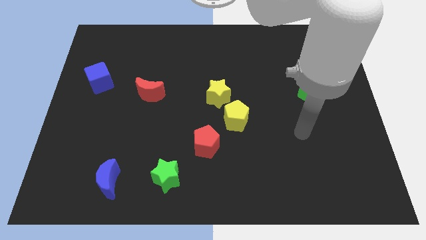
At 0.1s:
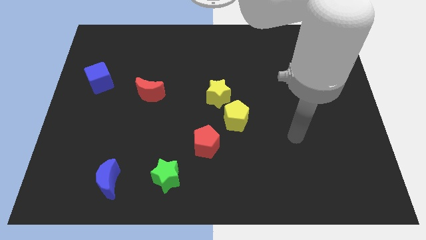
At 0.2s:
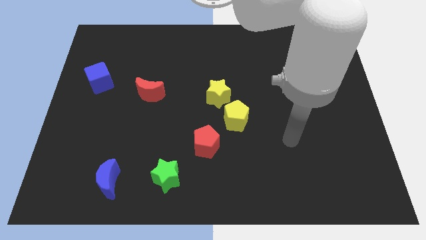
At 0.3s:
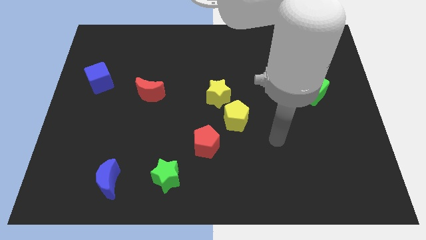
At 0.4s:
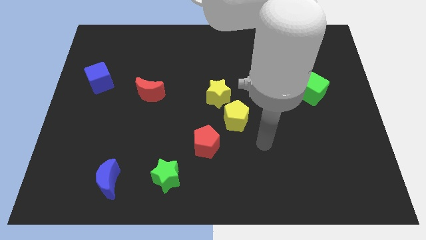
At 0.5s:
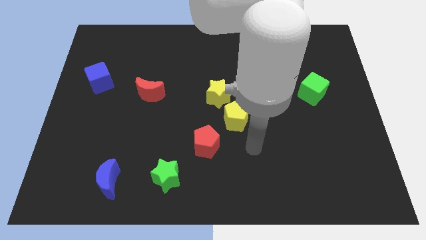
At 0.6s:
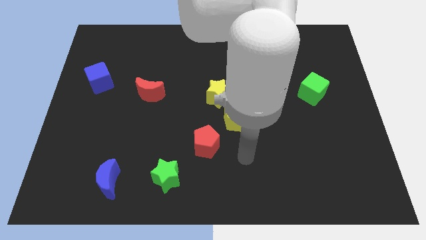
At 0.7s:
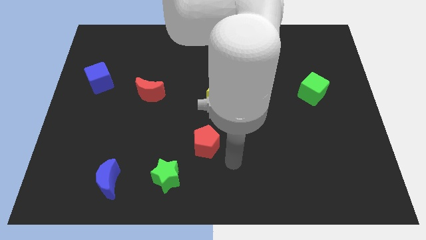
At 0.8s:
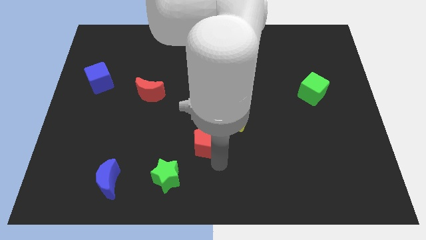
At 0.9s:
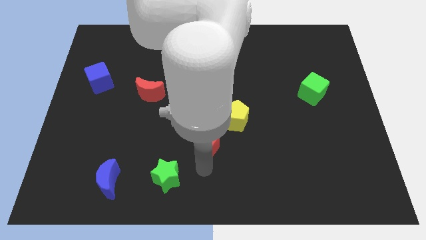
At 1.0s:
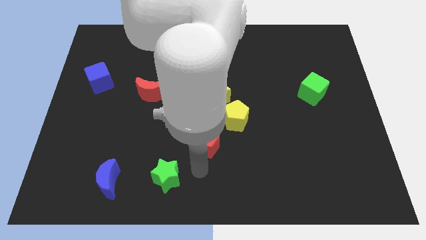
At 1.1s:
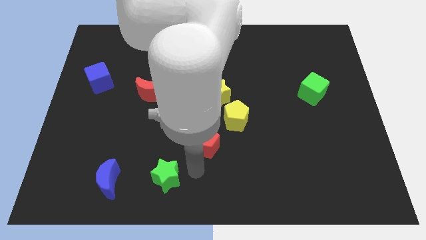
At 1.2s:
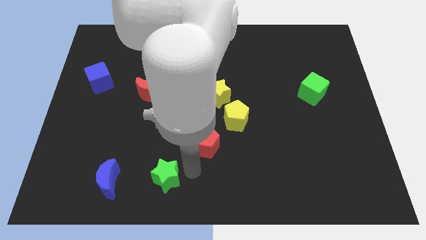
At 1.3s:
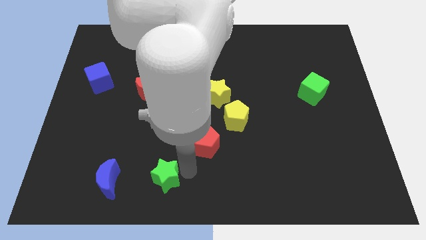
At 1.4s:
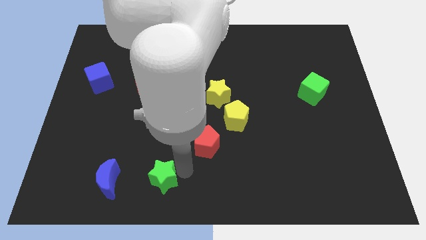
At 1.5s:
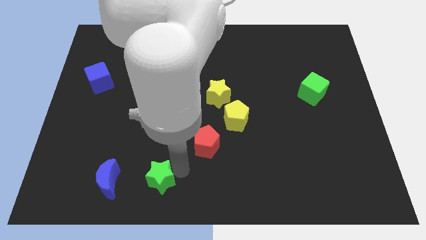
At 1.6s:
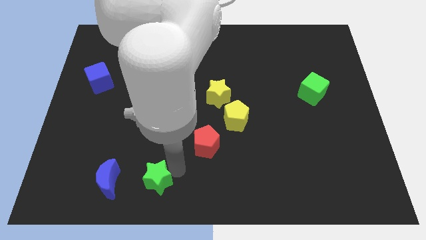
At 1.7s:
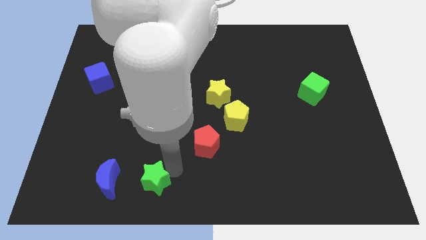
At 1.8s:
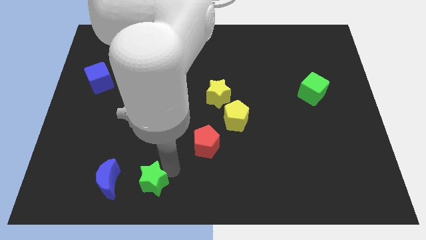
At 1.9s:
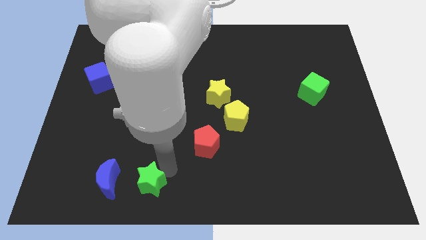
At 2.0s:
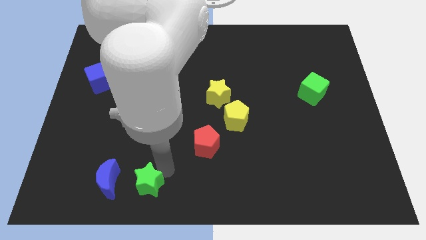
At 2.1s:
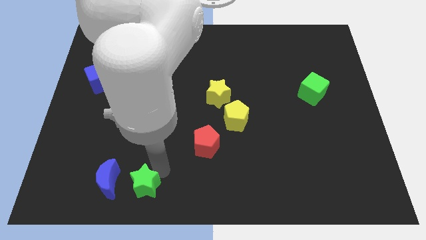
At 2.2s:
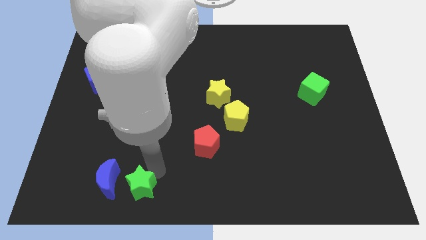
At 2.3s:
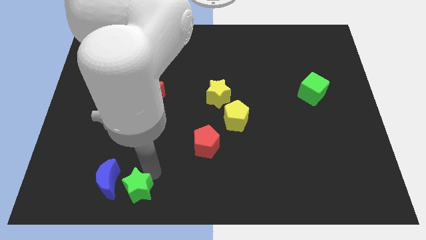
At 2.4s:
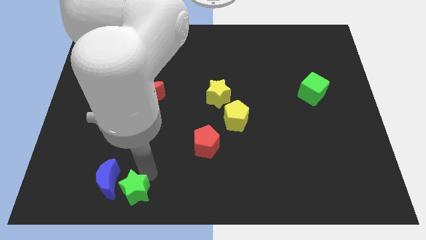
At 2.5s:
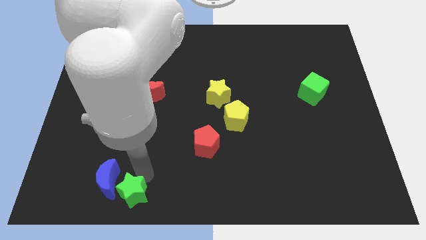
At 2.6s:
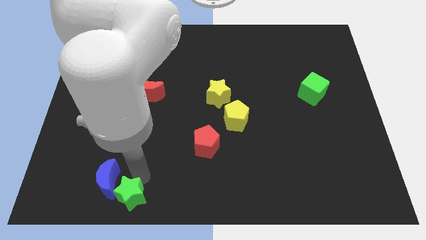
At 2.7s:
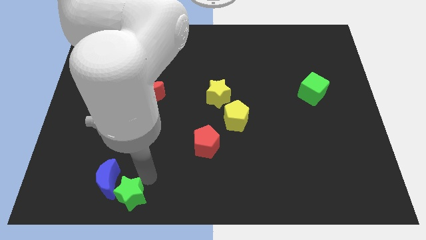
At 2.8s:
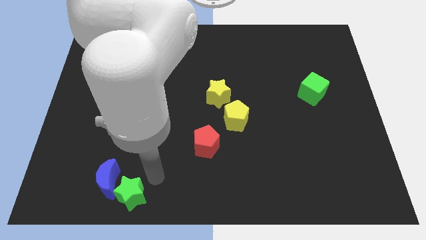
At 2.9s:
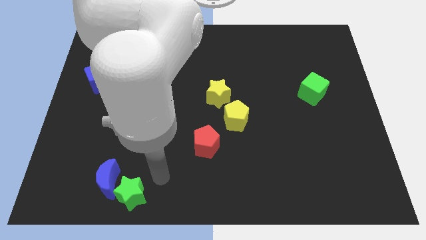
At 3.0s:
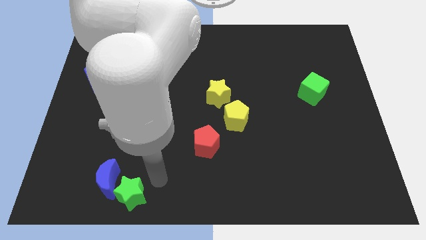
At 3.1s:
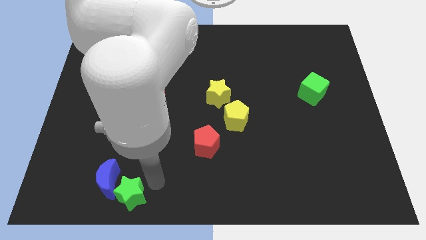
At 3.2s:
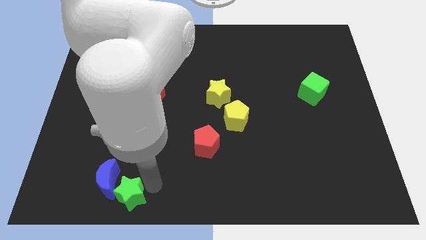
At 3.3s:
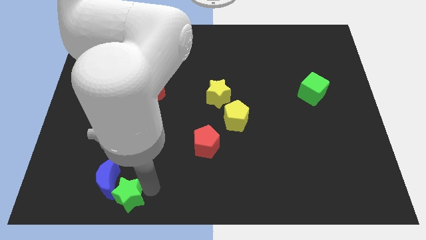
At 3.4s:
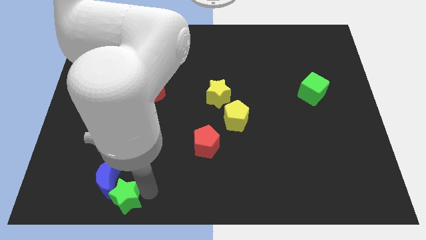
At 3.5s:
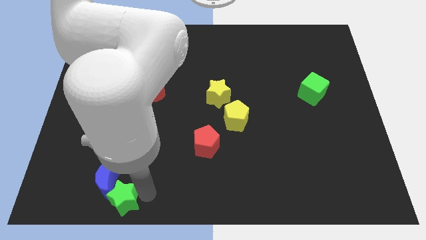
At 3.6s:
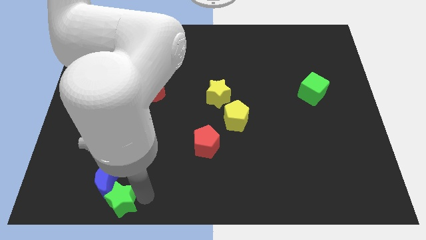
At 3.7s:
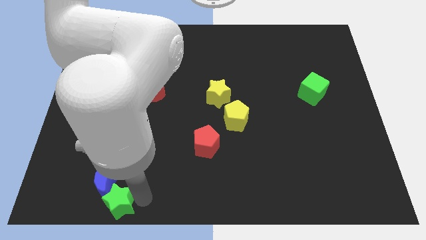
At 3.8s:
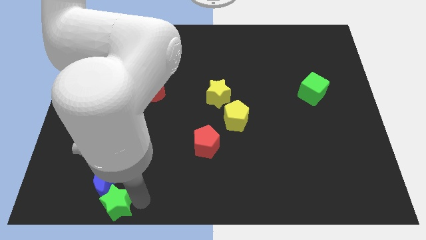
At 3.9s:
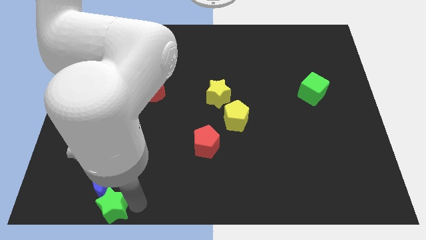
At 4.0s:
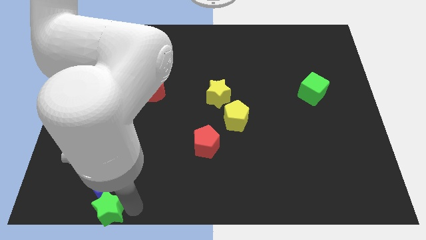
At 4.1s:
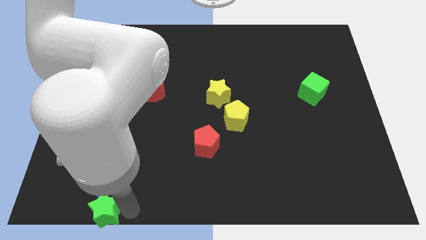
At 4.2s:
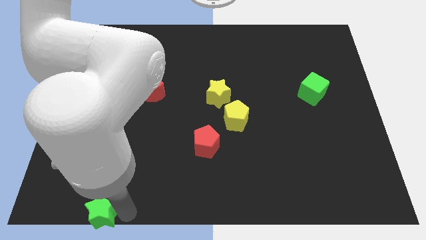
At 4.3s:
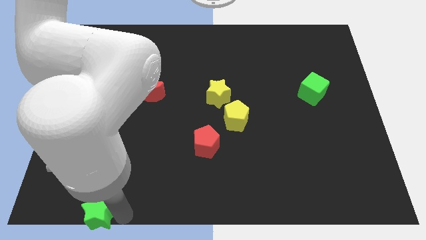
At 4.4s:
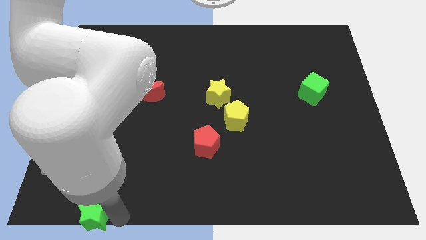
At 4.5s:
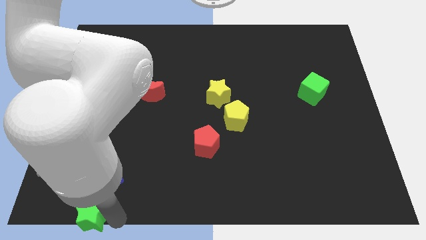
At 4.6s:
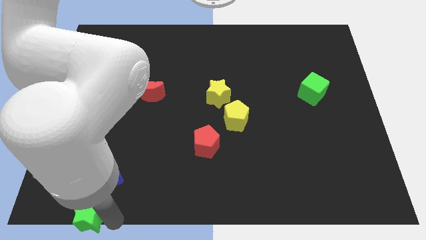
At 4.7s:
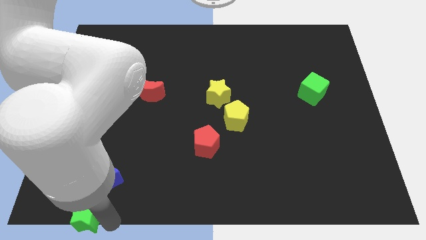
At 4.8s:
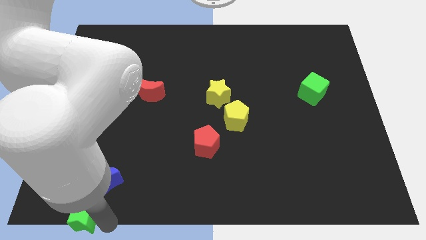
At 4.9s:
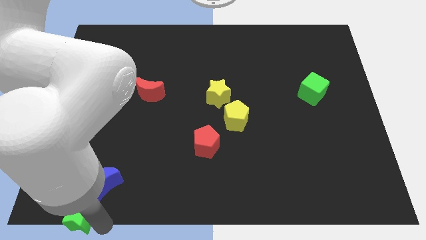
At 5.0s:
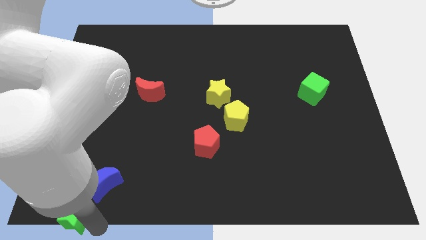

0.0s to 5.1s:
push the green star to the bottom left corner

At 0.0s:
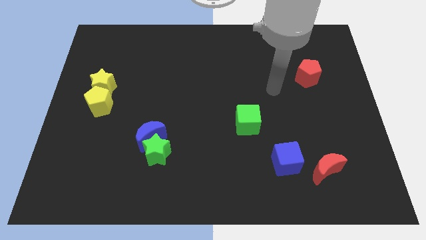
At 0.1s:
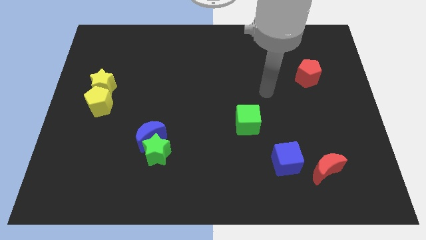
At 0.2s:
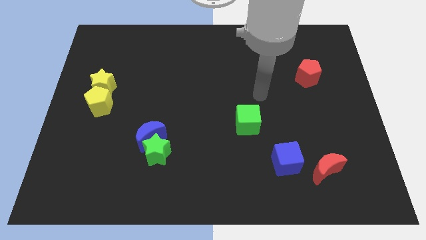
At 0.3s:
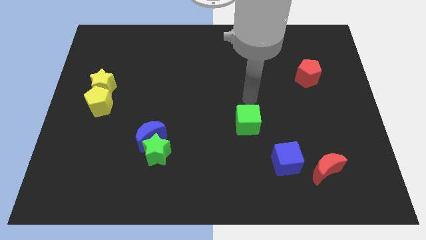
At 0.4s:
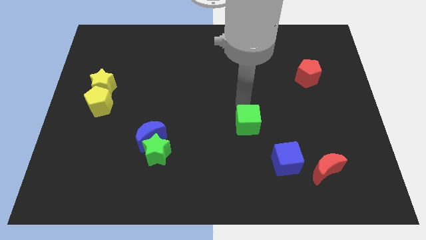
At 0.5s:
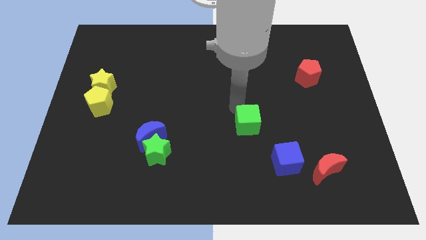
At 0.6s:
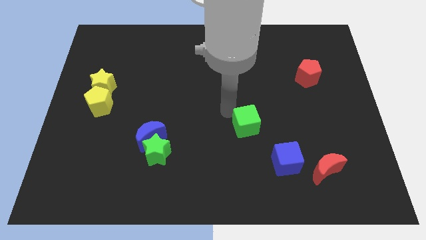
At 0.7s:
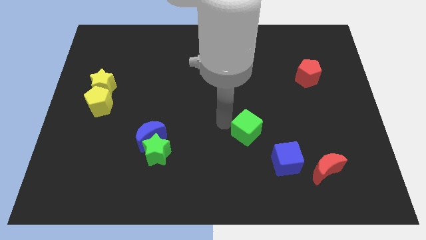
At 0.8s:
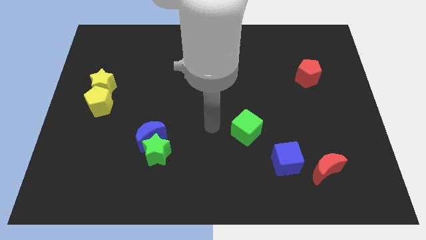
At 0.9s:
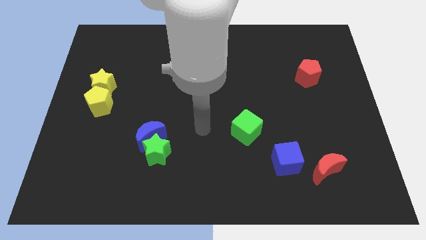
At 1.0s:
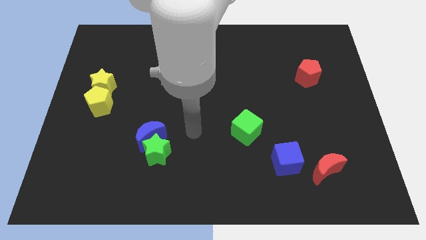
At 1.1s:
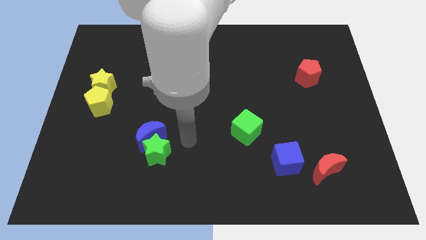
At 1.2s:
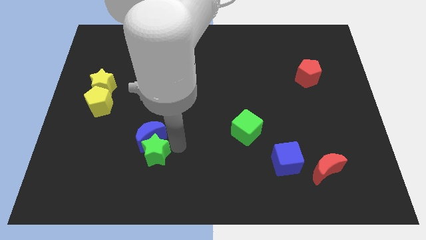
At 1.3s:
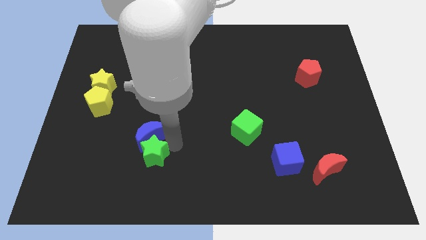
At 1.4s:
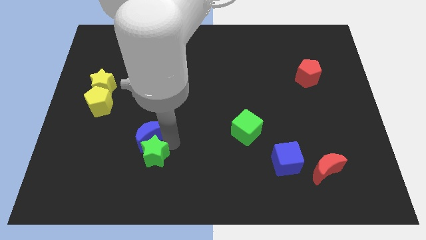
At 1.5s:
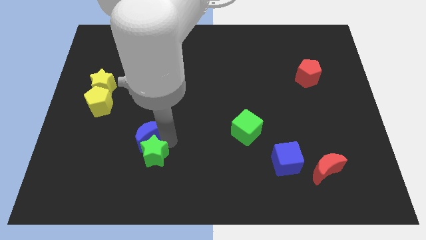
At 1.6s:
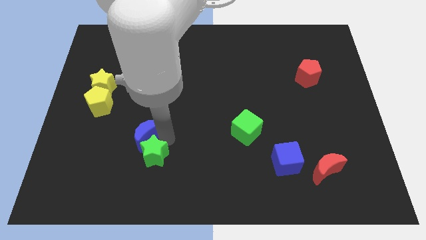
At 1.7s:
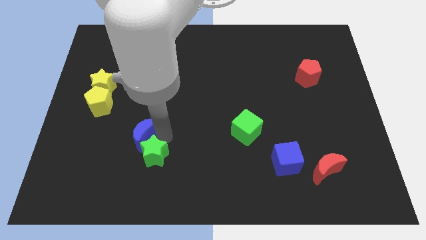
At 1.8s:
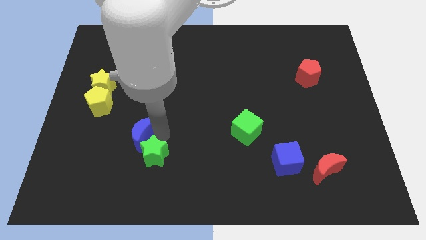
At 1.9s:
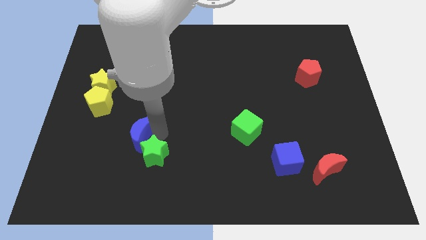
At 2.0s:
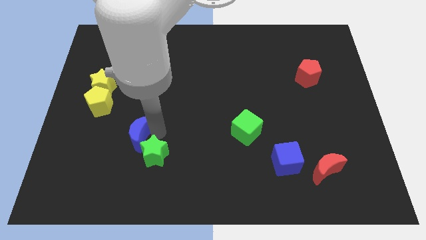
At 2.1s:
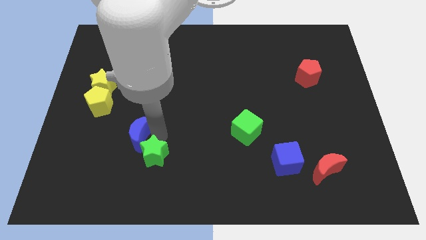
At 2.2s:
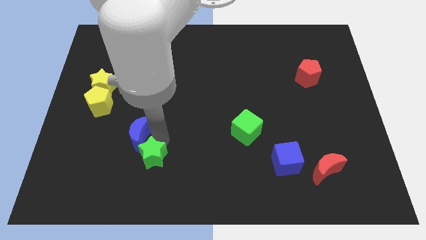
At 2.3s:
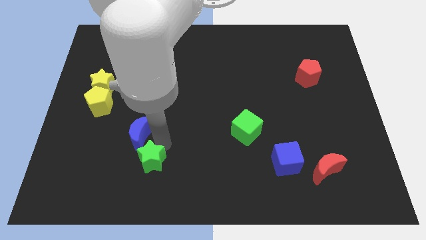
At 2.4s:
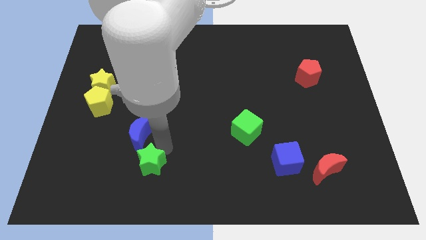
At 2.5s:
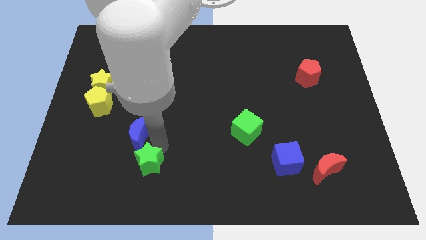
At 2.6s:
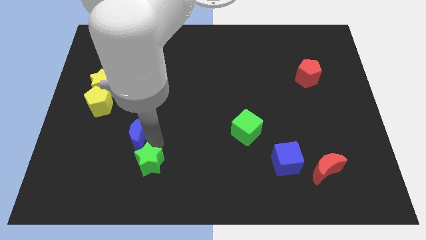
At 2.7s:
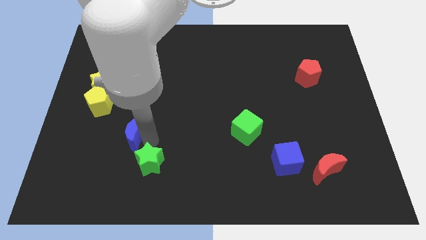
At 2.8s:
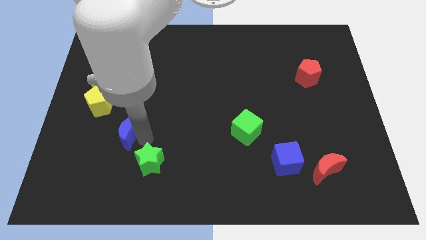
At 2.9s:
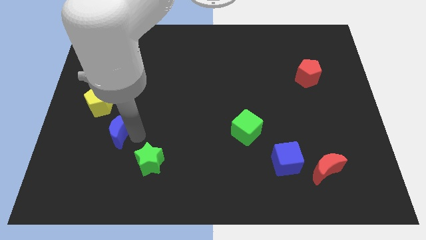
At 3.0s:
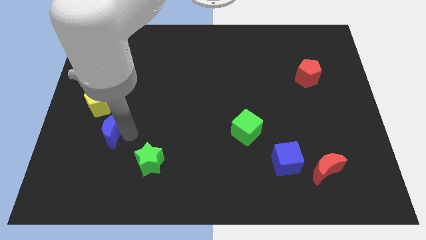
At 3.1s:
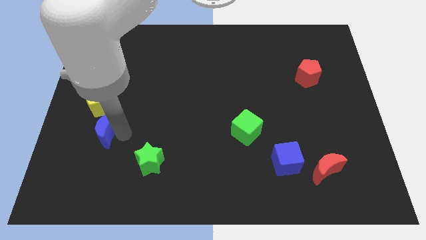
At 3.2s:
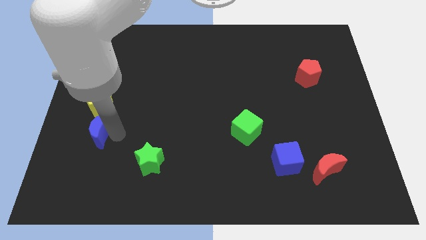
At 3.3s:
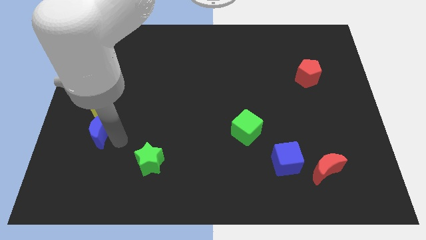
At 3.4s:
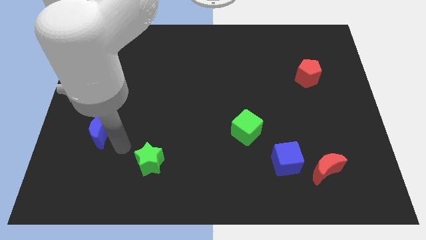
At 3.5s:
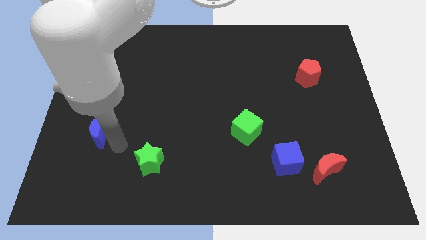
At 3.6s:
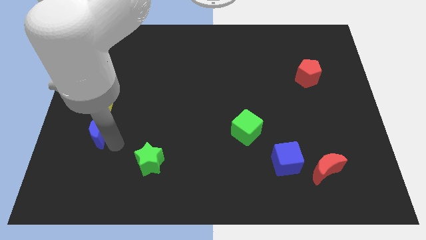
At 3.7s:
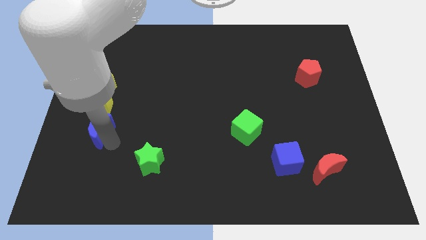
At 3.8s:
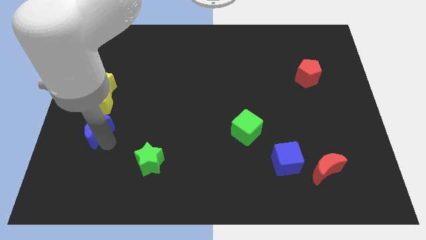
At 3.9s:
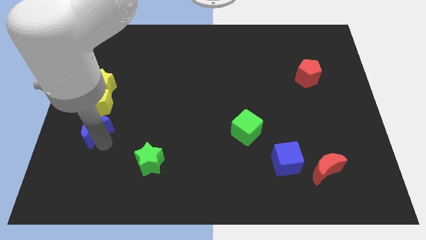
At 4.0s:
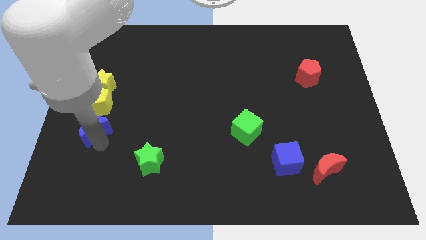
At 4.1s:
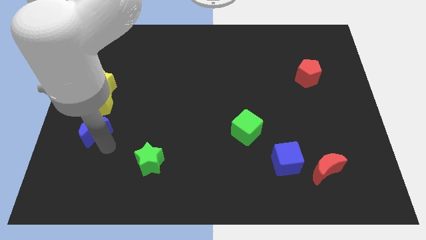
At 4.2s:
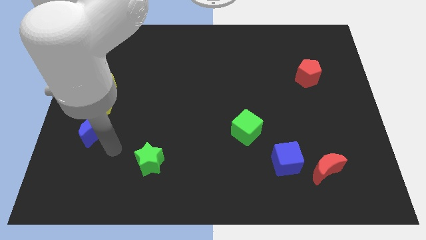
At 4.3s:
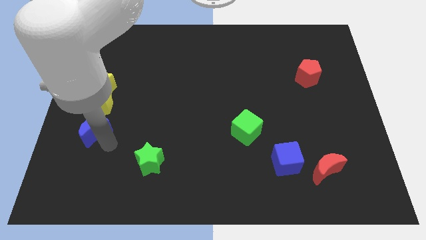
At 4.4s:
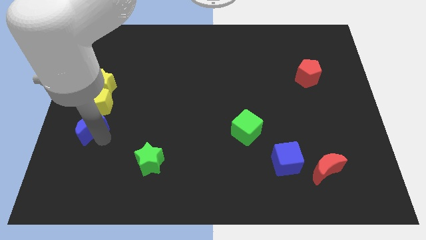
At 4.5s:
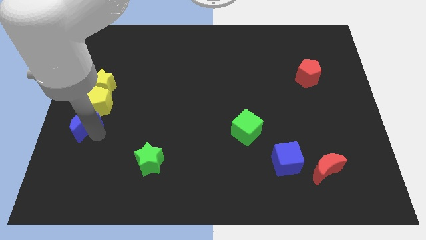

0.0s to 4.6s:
push the blue moon to the left side of the board
